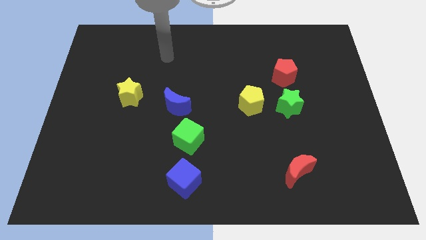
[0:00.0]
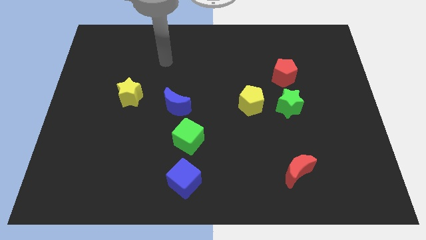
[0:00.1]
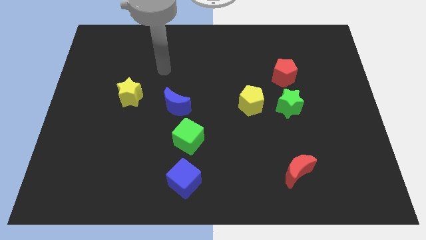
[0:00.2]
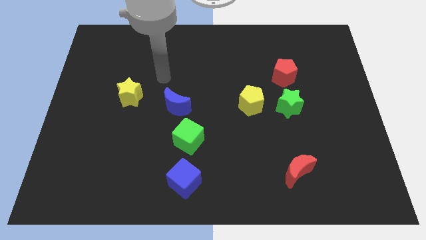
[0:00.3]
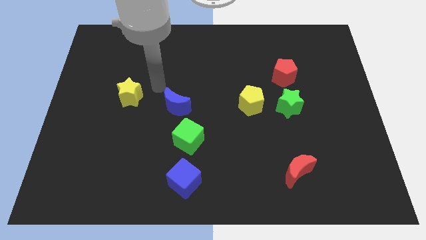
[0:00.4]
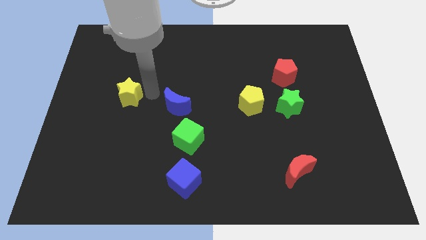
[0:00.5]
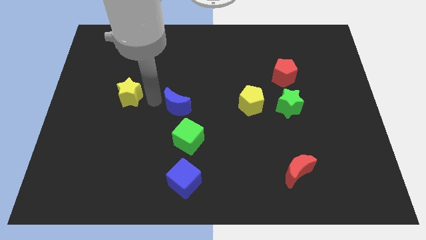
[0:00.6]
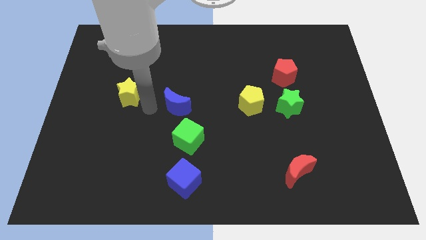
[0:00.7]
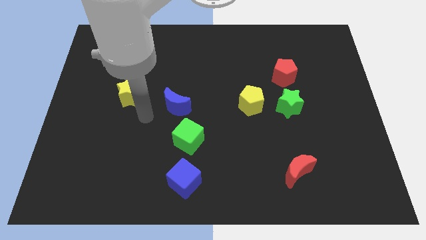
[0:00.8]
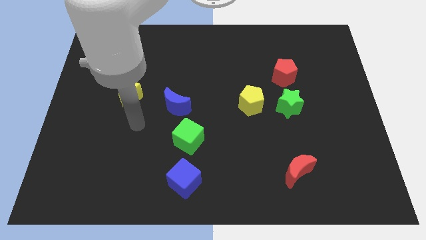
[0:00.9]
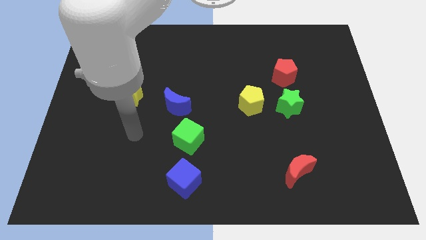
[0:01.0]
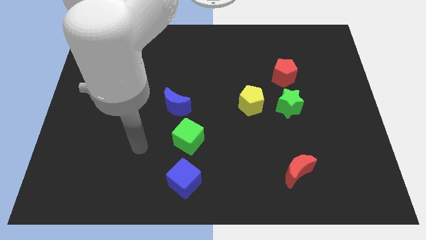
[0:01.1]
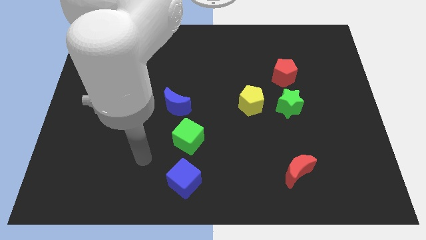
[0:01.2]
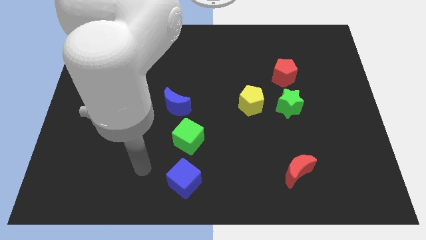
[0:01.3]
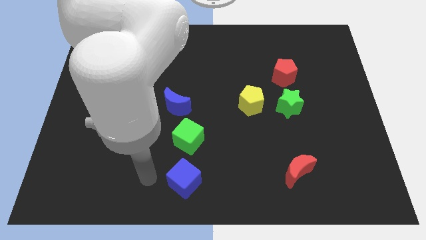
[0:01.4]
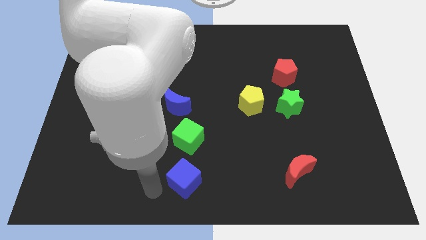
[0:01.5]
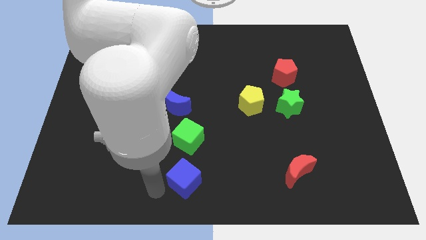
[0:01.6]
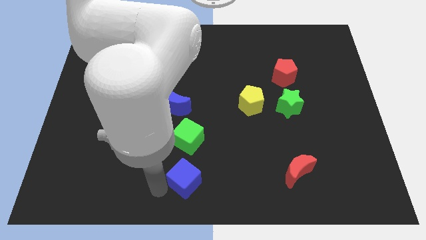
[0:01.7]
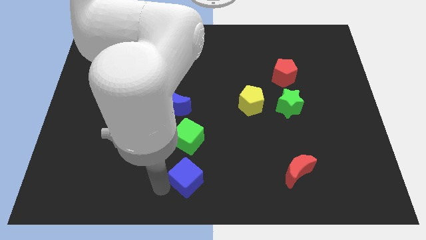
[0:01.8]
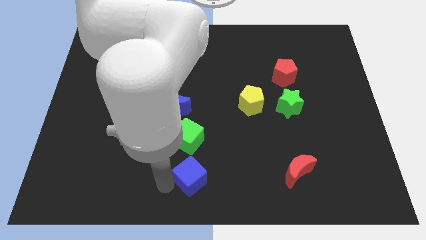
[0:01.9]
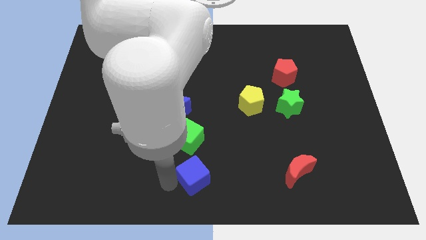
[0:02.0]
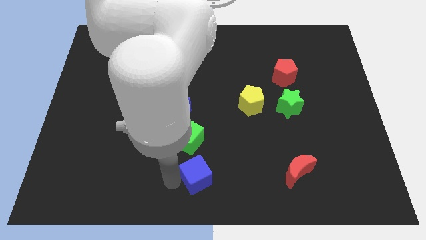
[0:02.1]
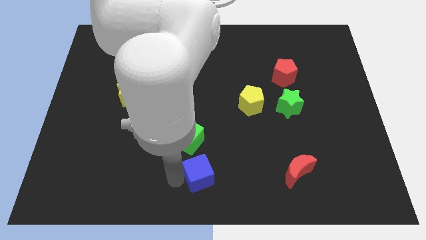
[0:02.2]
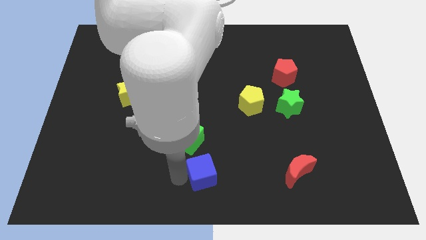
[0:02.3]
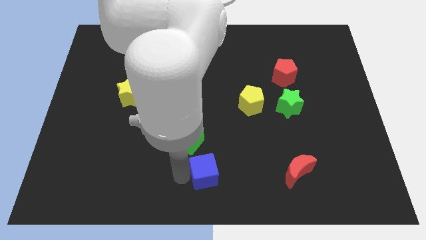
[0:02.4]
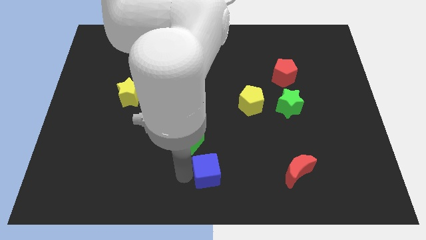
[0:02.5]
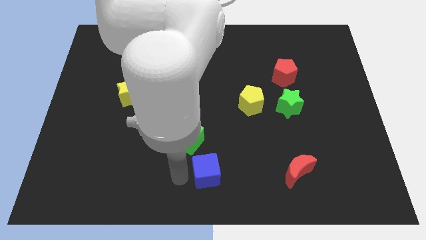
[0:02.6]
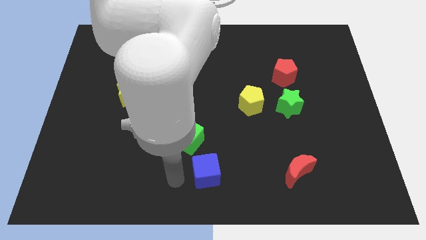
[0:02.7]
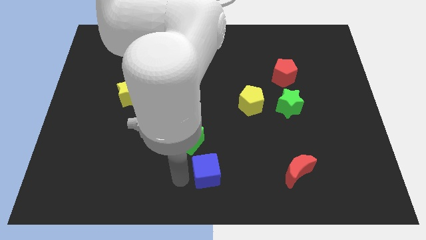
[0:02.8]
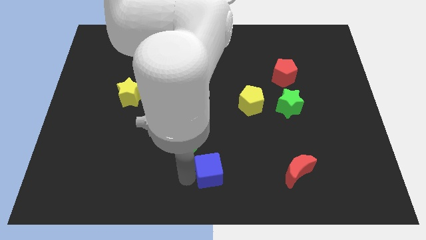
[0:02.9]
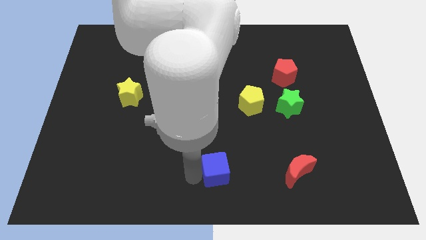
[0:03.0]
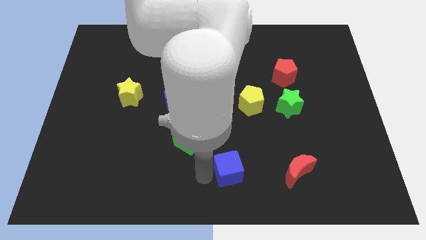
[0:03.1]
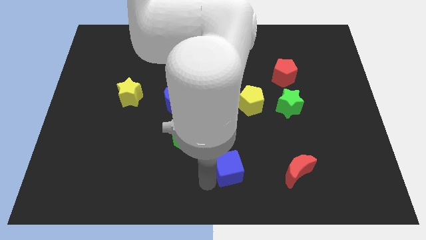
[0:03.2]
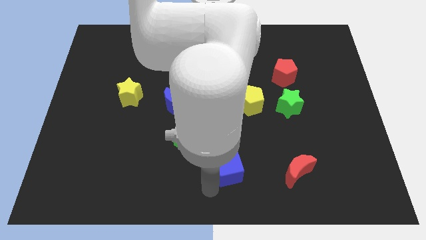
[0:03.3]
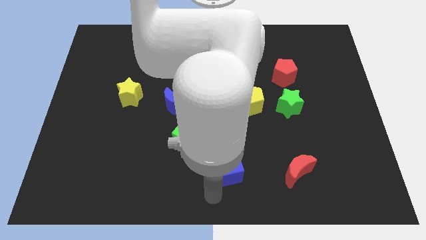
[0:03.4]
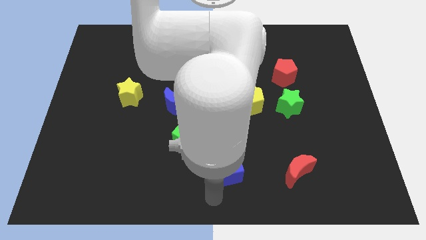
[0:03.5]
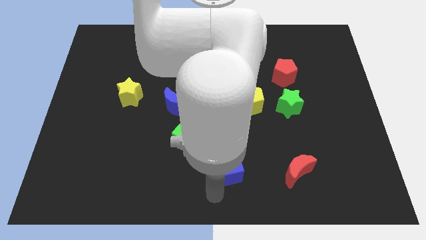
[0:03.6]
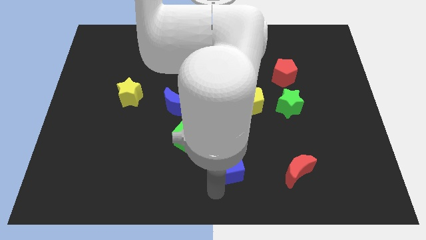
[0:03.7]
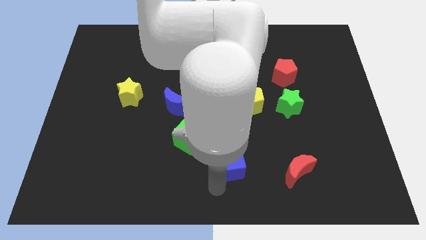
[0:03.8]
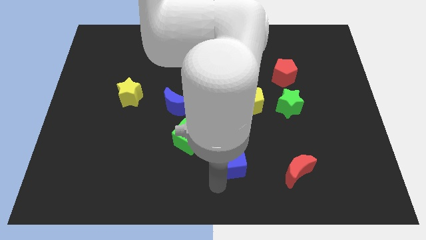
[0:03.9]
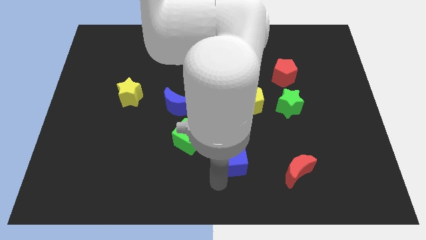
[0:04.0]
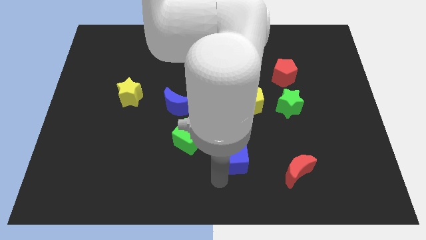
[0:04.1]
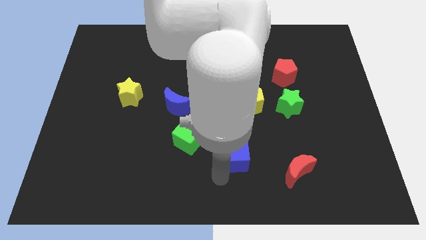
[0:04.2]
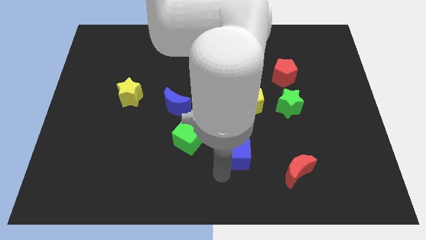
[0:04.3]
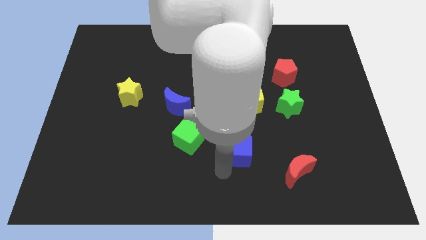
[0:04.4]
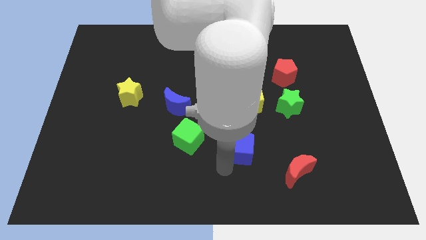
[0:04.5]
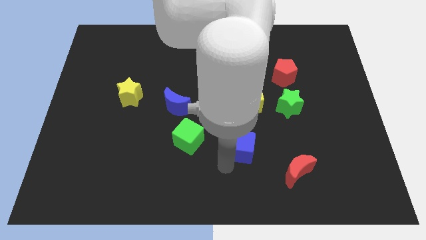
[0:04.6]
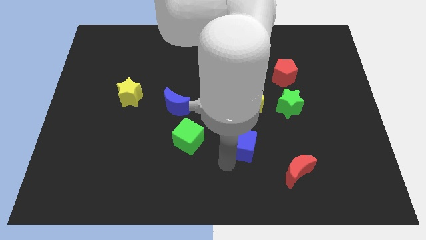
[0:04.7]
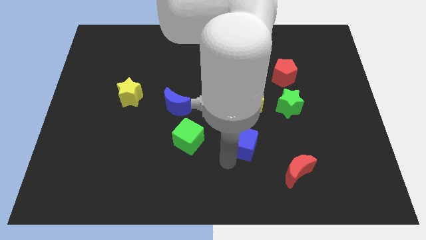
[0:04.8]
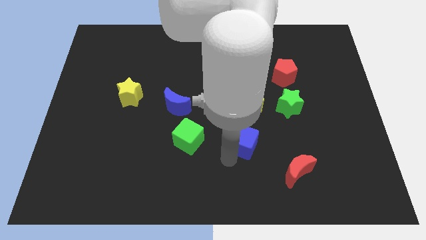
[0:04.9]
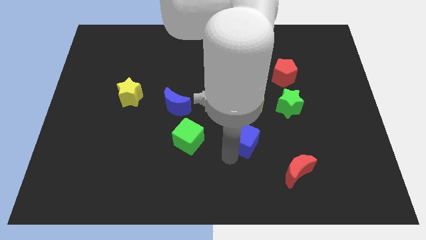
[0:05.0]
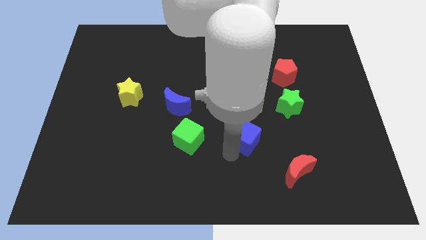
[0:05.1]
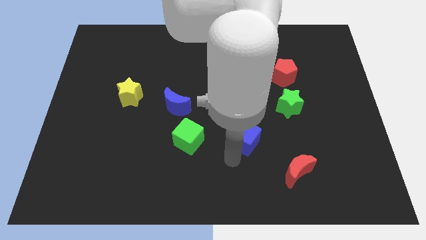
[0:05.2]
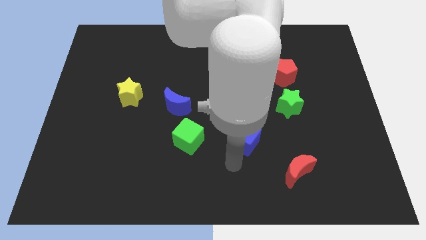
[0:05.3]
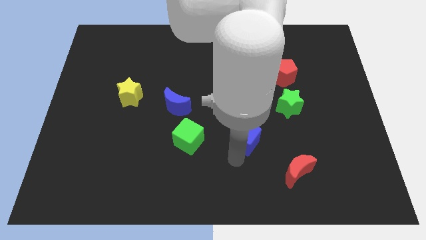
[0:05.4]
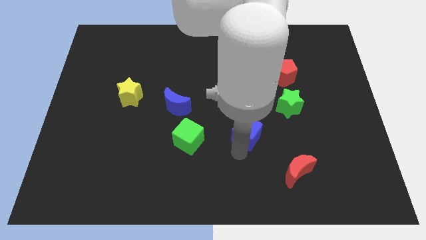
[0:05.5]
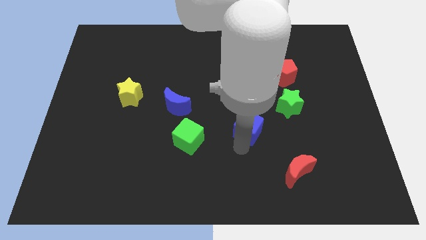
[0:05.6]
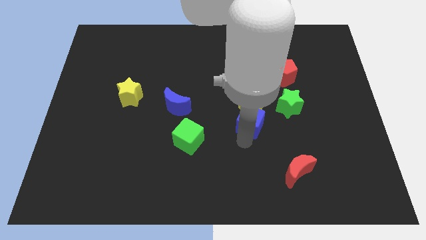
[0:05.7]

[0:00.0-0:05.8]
slide the blue cube towards the yellow pentagon

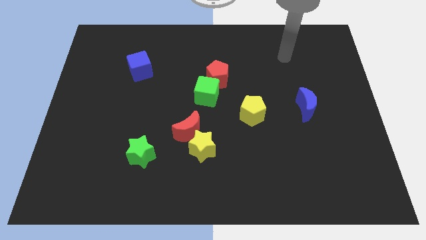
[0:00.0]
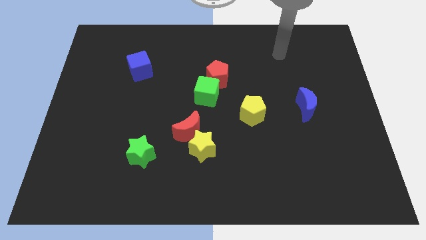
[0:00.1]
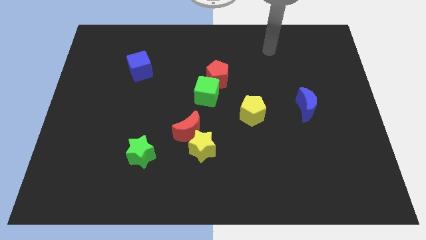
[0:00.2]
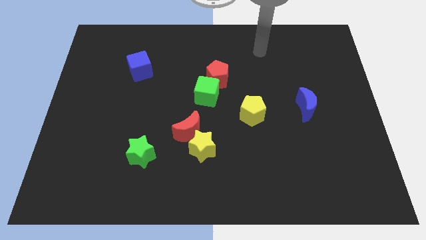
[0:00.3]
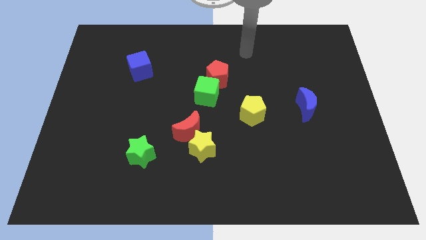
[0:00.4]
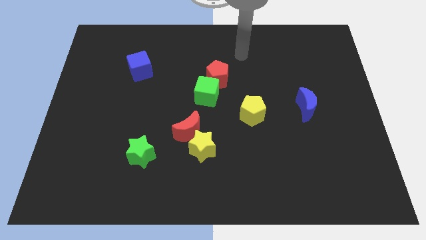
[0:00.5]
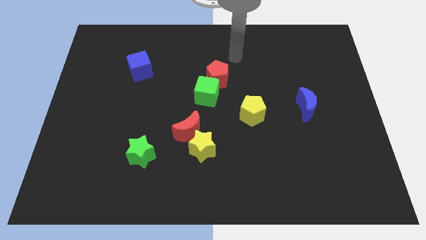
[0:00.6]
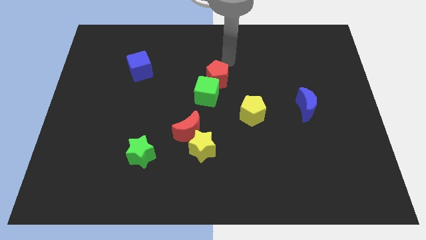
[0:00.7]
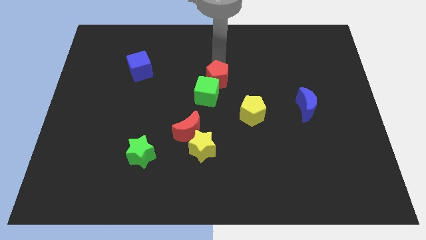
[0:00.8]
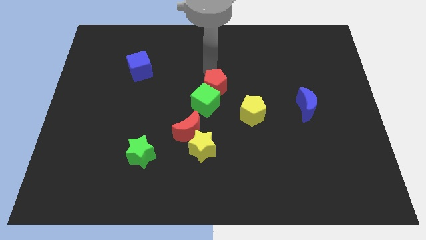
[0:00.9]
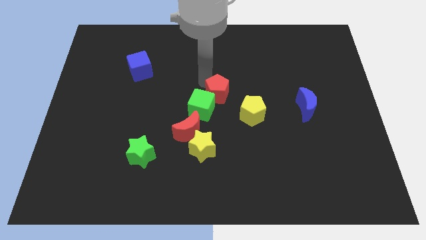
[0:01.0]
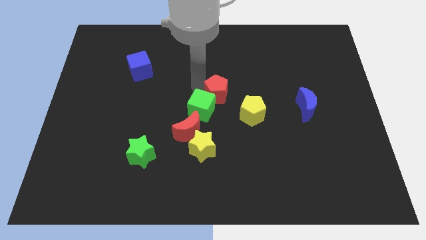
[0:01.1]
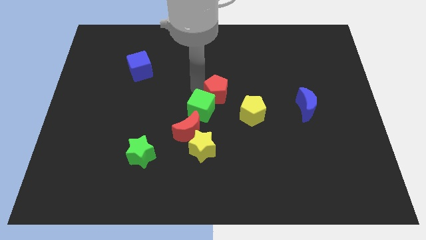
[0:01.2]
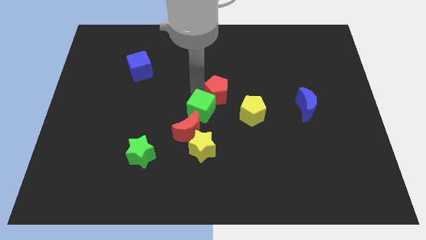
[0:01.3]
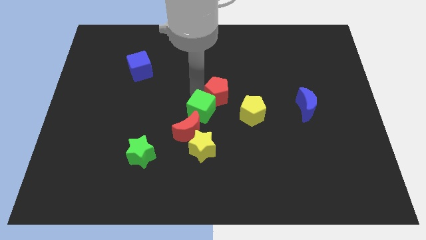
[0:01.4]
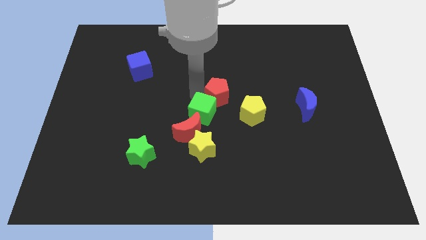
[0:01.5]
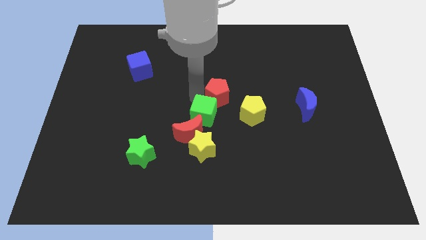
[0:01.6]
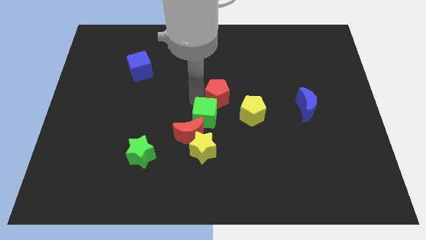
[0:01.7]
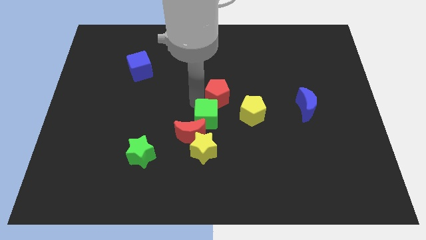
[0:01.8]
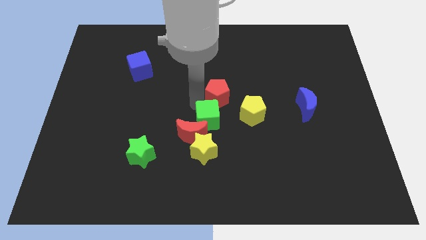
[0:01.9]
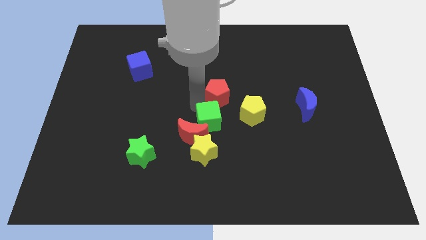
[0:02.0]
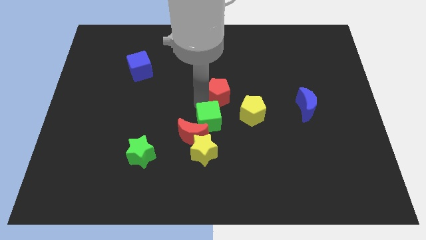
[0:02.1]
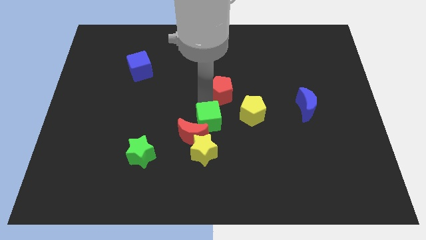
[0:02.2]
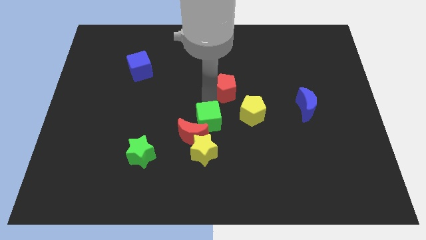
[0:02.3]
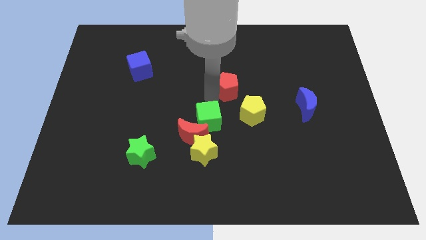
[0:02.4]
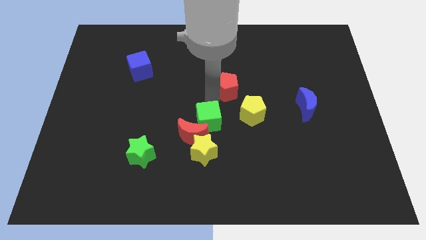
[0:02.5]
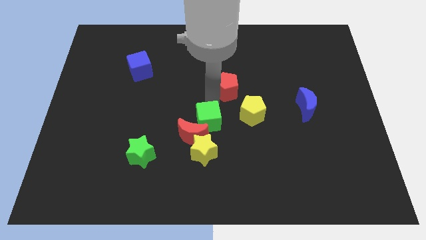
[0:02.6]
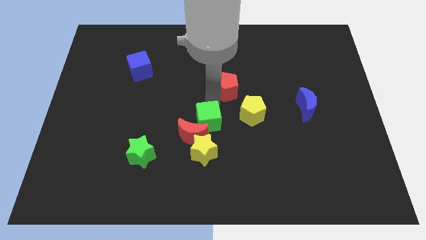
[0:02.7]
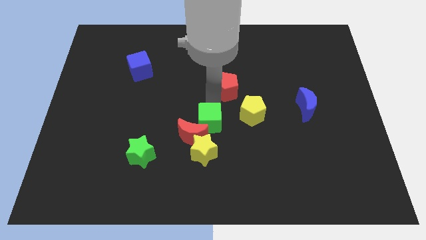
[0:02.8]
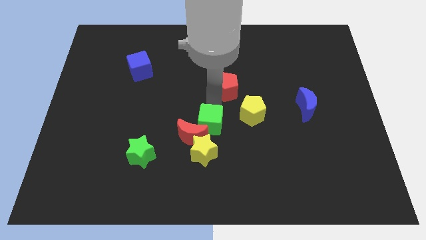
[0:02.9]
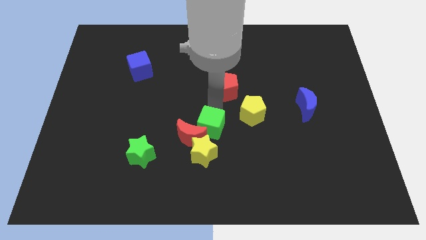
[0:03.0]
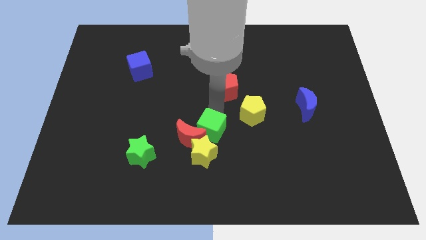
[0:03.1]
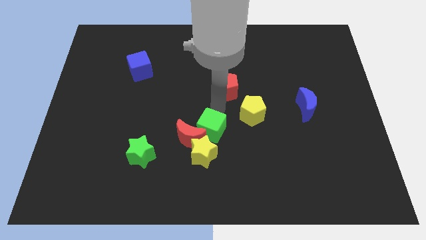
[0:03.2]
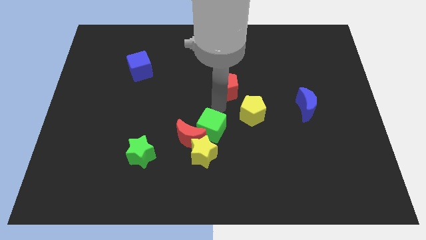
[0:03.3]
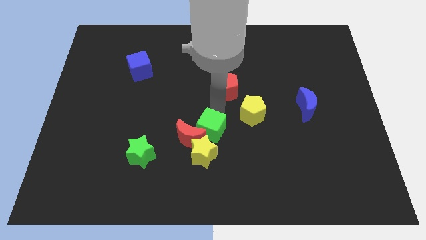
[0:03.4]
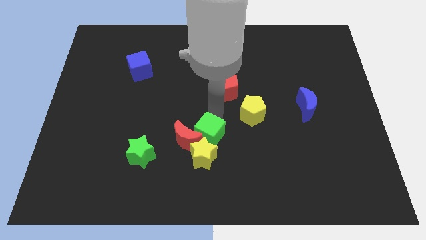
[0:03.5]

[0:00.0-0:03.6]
put the green cube close to the yellow star
